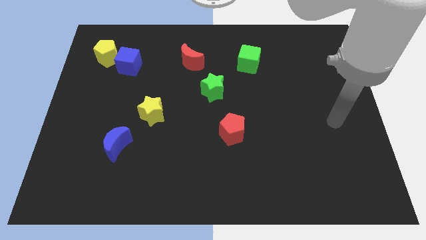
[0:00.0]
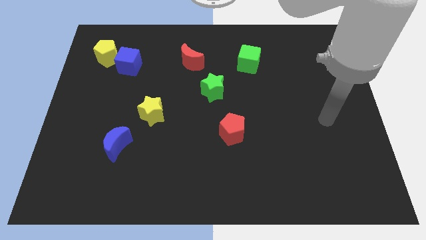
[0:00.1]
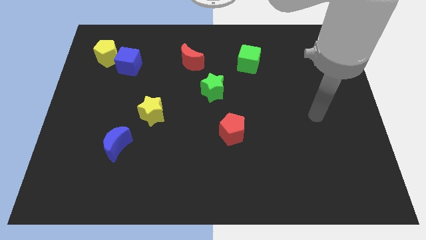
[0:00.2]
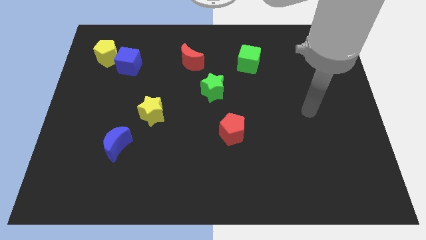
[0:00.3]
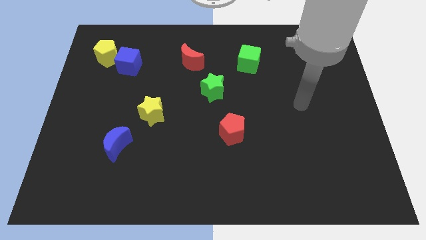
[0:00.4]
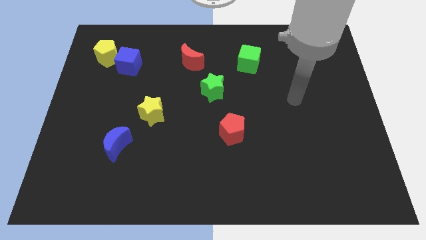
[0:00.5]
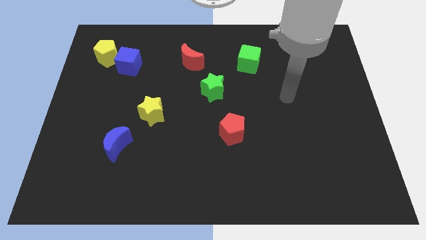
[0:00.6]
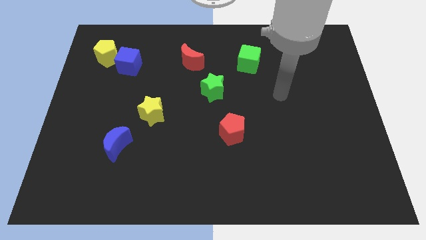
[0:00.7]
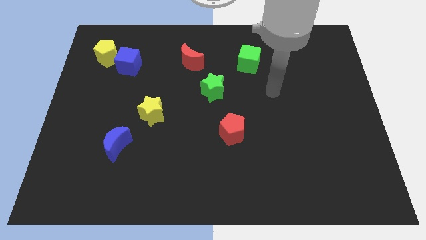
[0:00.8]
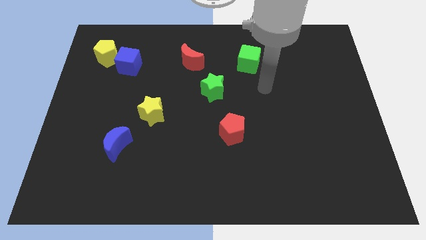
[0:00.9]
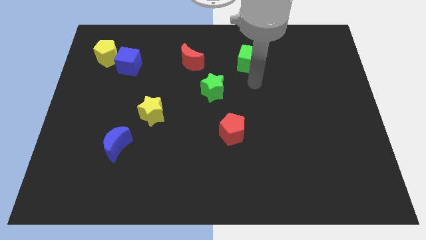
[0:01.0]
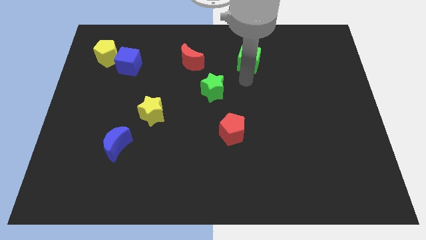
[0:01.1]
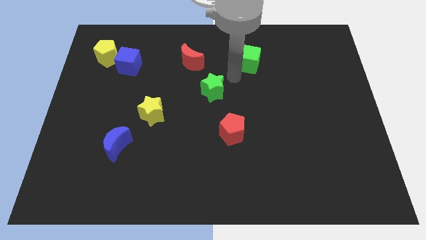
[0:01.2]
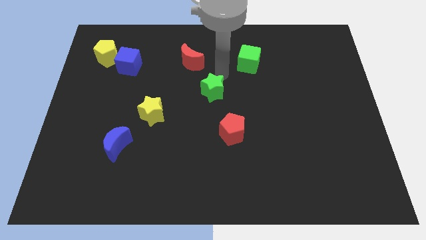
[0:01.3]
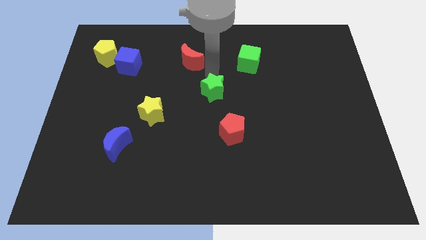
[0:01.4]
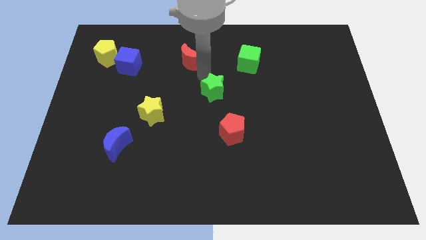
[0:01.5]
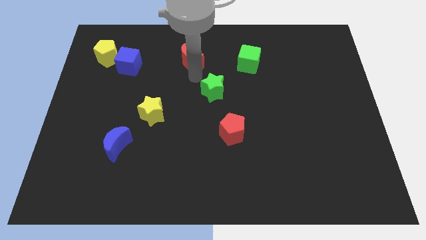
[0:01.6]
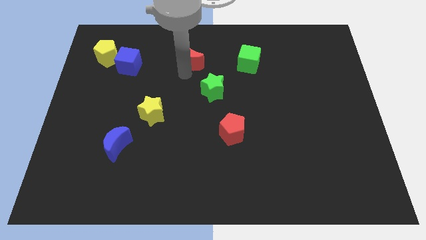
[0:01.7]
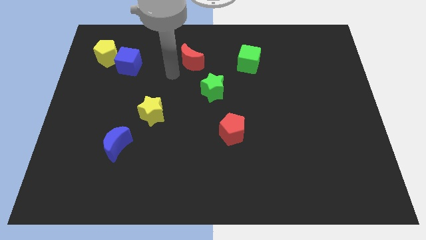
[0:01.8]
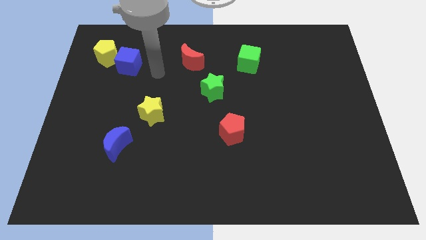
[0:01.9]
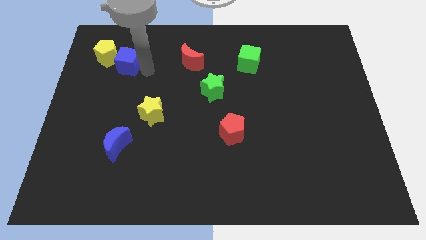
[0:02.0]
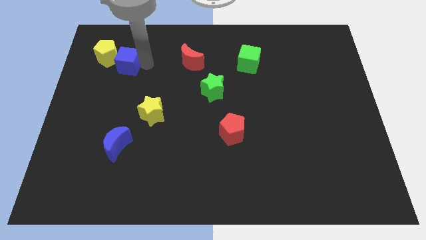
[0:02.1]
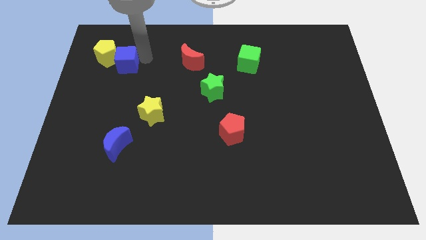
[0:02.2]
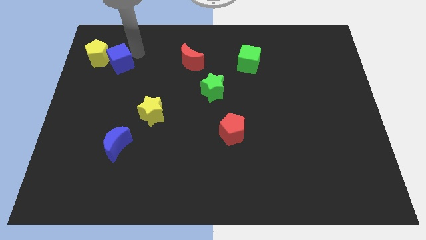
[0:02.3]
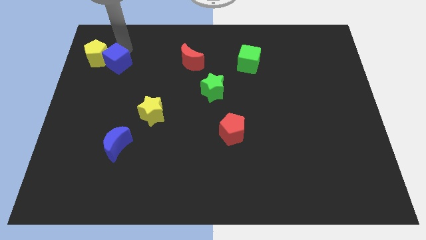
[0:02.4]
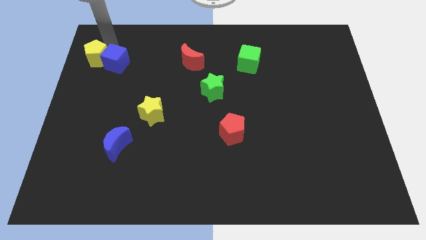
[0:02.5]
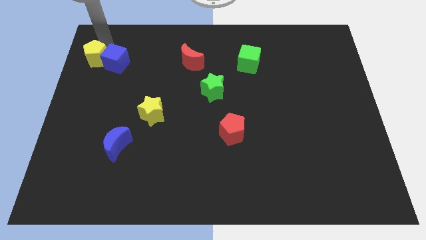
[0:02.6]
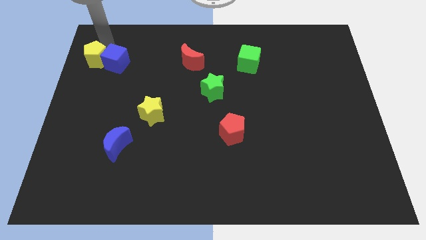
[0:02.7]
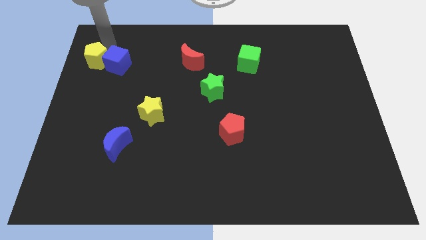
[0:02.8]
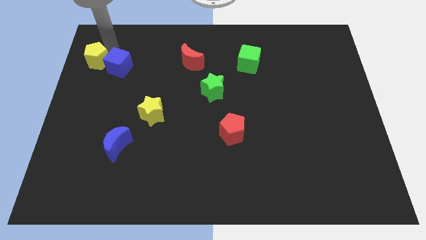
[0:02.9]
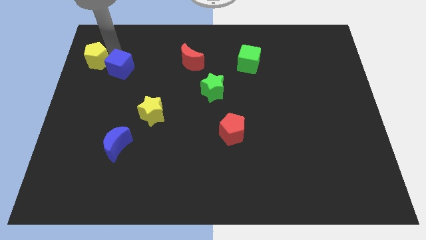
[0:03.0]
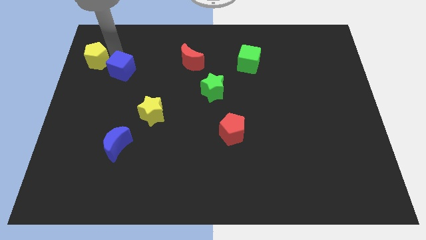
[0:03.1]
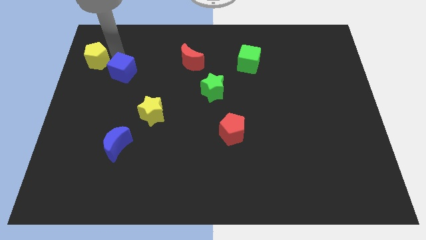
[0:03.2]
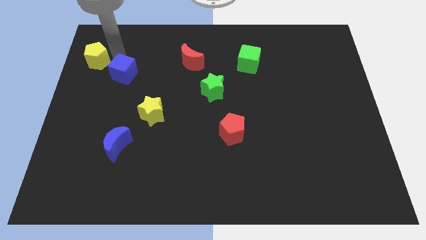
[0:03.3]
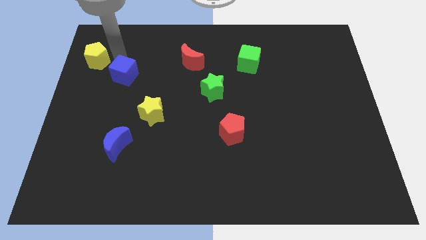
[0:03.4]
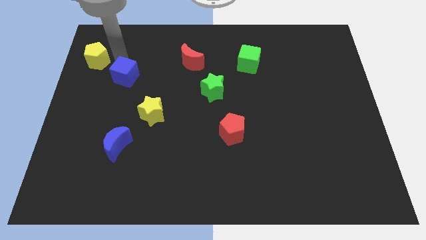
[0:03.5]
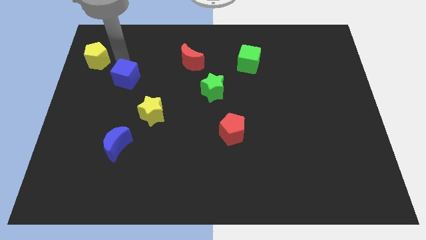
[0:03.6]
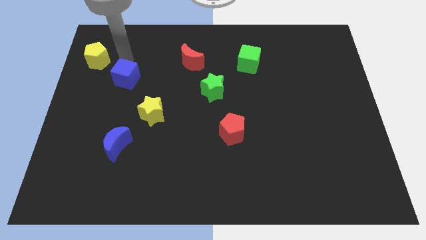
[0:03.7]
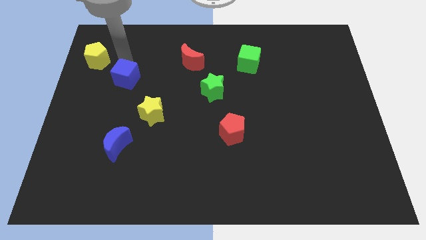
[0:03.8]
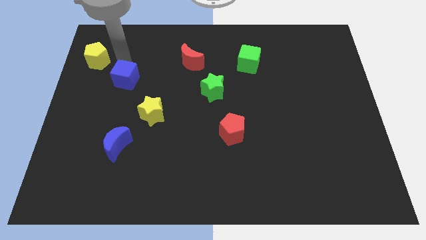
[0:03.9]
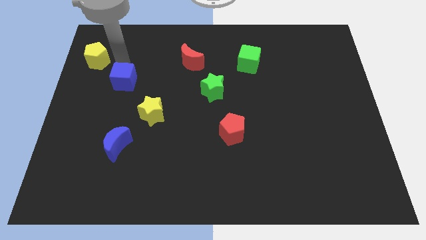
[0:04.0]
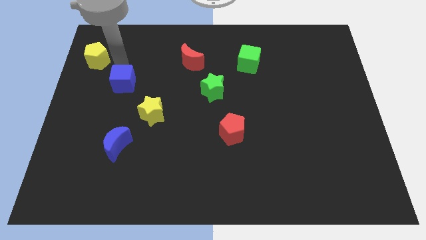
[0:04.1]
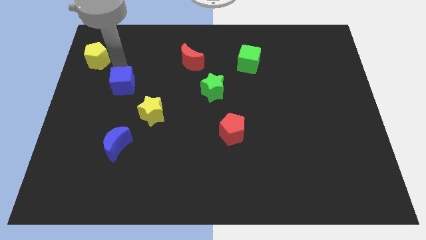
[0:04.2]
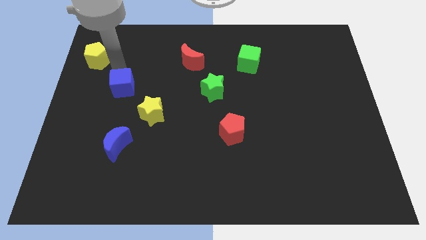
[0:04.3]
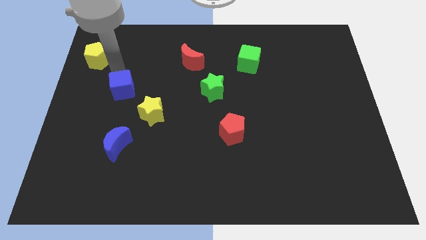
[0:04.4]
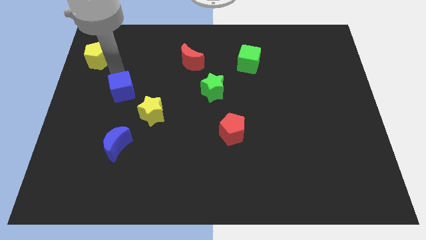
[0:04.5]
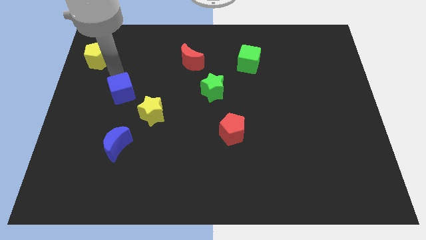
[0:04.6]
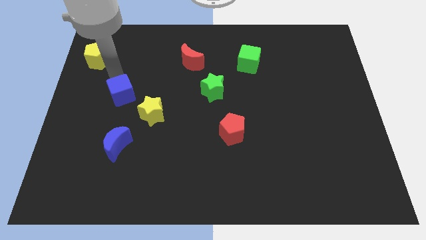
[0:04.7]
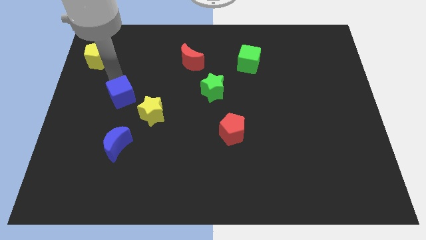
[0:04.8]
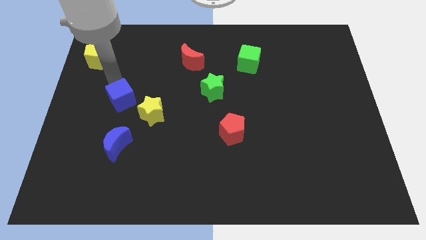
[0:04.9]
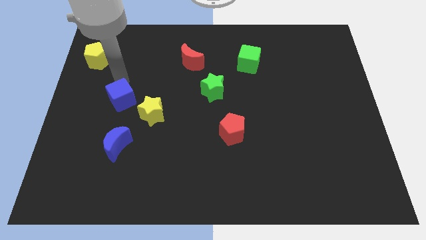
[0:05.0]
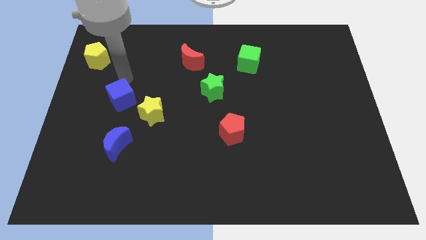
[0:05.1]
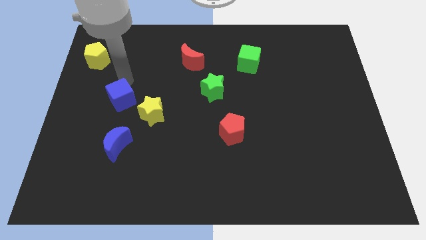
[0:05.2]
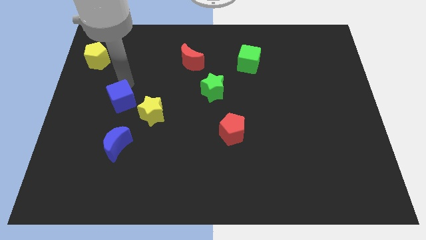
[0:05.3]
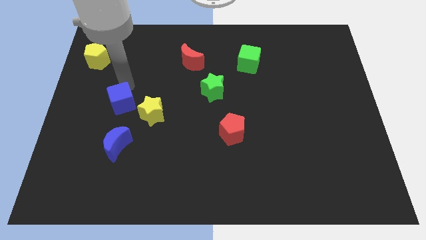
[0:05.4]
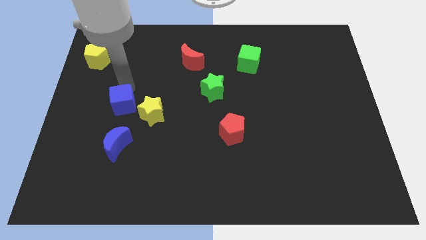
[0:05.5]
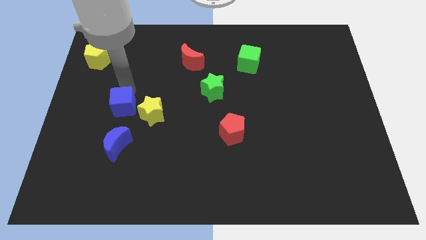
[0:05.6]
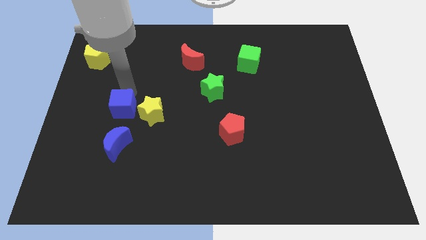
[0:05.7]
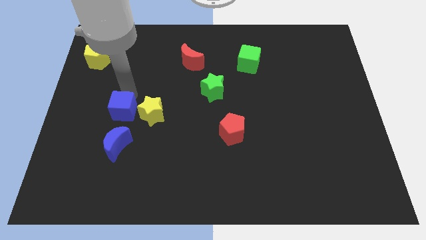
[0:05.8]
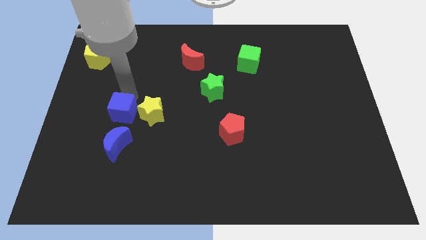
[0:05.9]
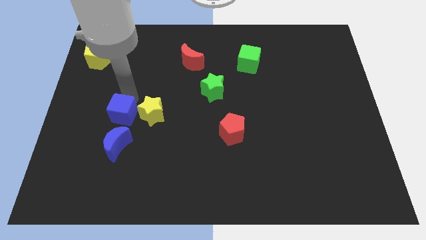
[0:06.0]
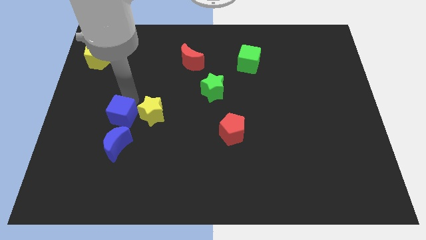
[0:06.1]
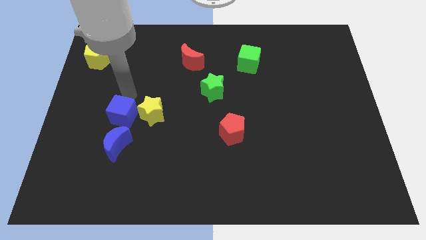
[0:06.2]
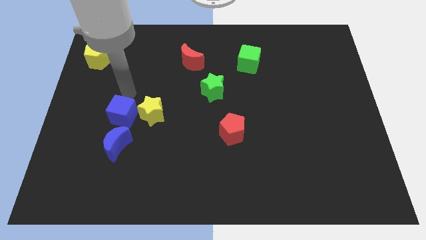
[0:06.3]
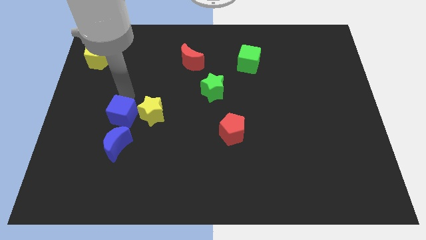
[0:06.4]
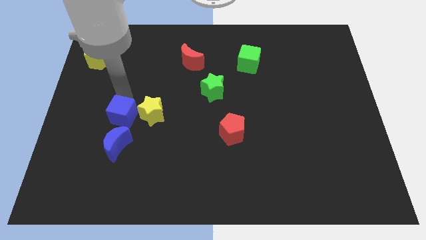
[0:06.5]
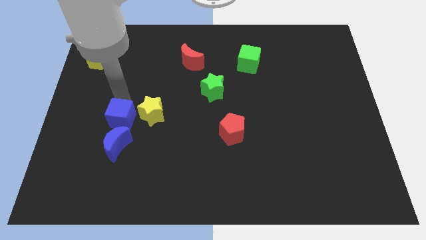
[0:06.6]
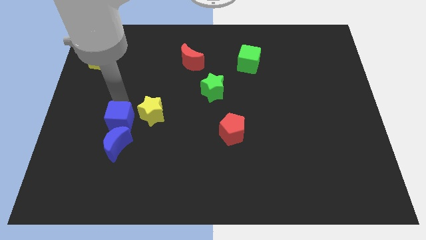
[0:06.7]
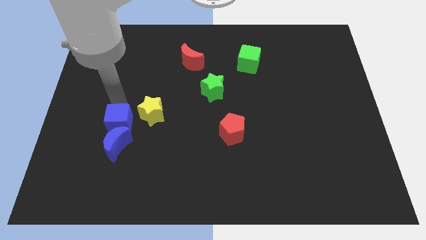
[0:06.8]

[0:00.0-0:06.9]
put the blue cube next to the blue moon
